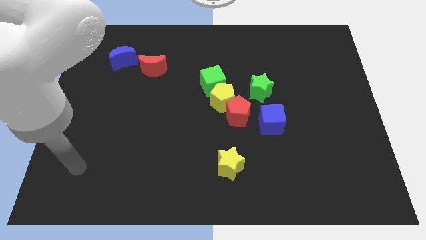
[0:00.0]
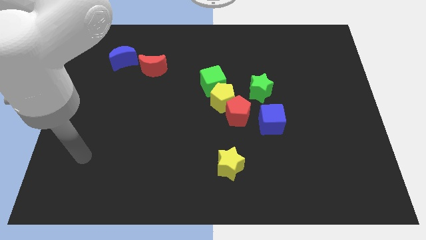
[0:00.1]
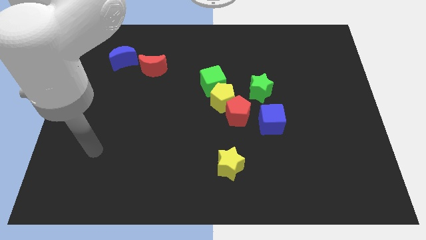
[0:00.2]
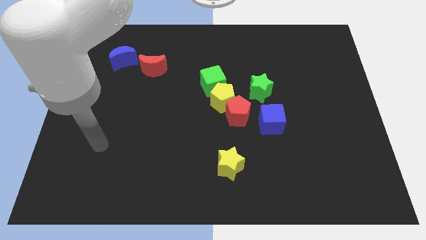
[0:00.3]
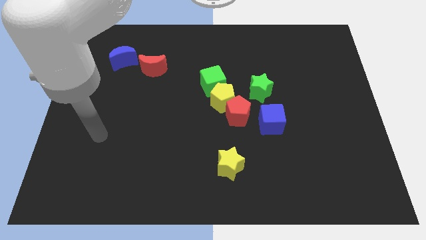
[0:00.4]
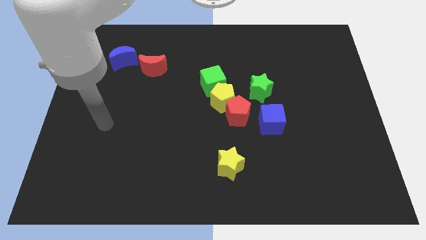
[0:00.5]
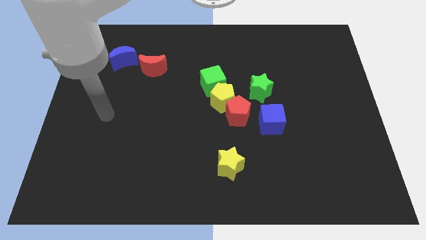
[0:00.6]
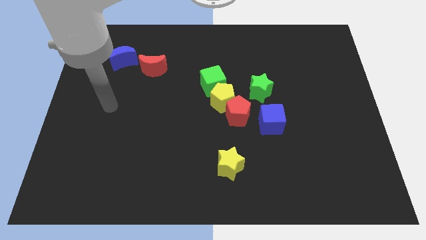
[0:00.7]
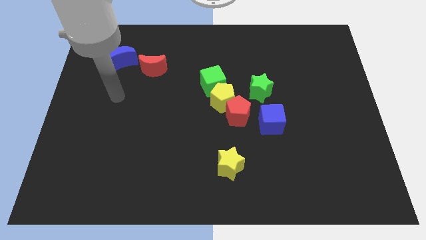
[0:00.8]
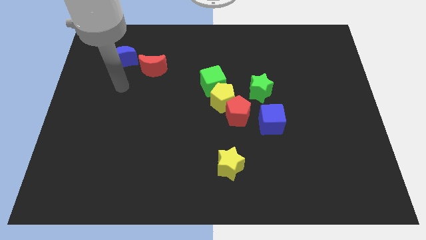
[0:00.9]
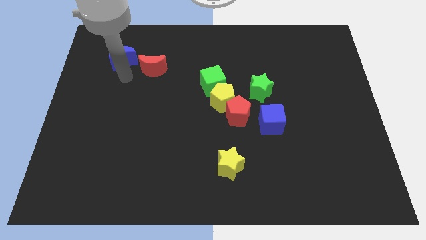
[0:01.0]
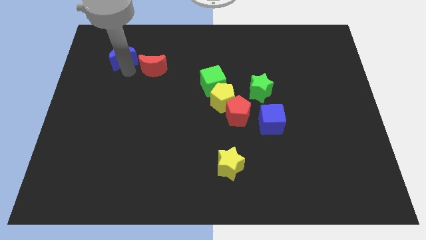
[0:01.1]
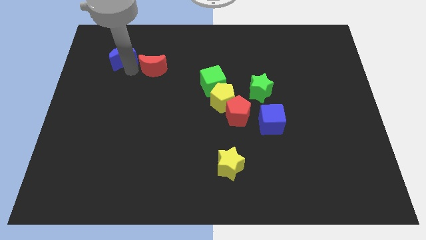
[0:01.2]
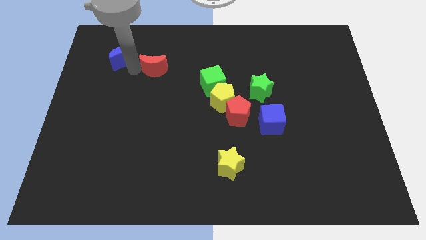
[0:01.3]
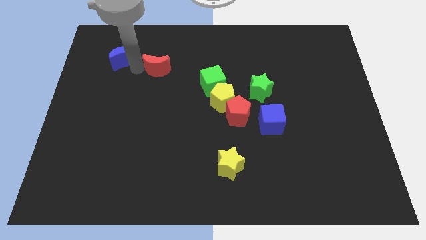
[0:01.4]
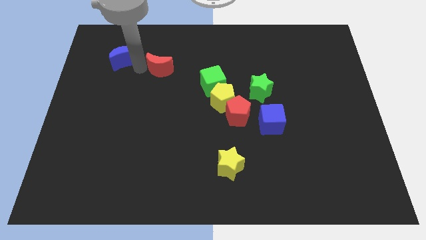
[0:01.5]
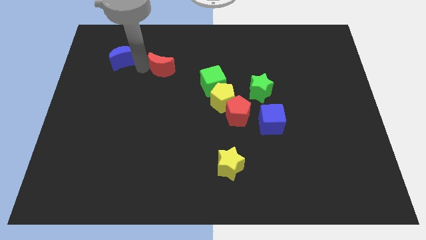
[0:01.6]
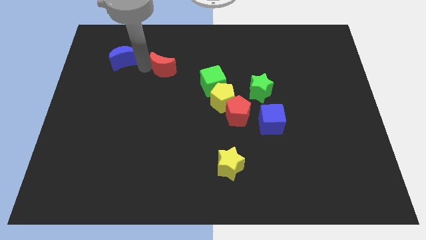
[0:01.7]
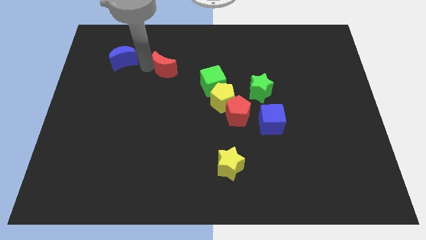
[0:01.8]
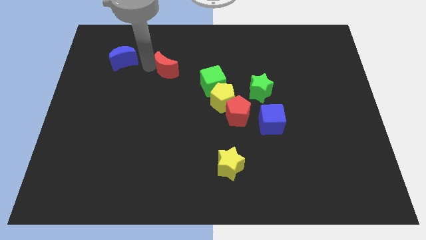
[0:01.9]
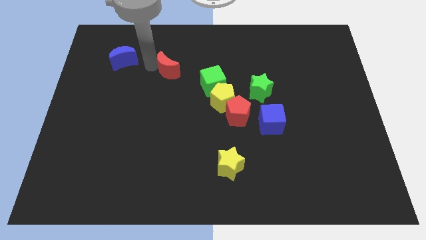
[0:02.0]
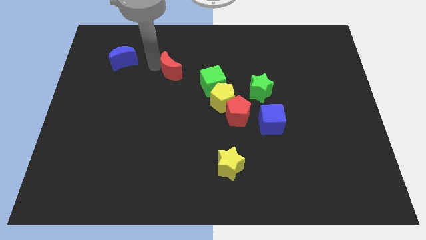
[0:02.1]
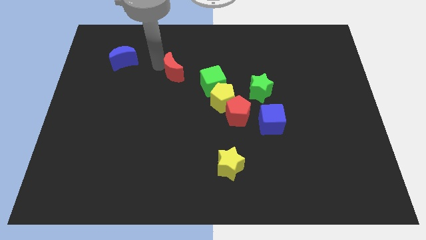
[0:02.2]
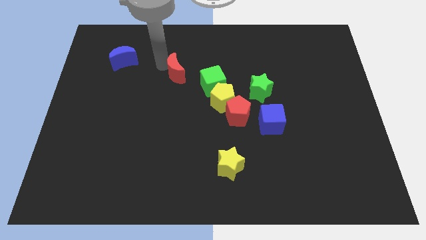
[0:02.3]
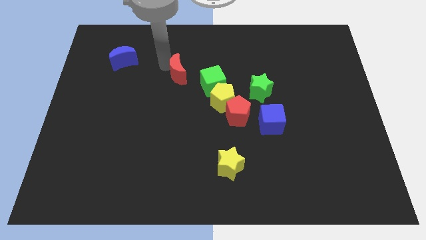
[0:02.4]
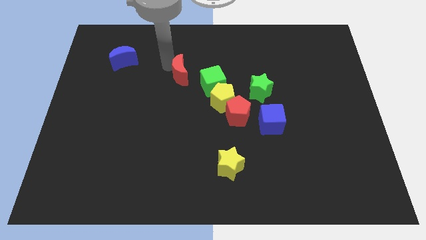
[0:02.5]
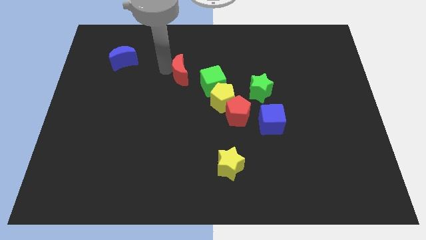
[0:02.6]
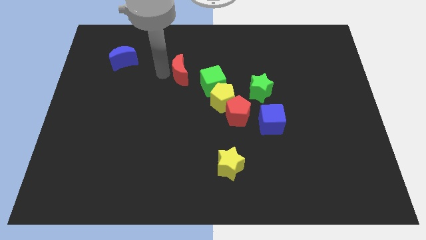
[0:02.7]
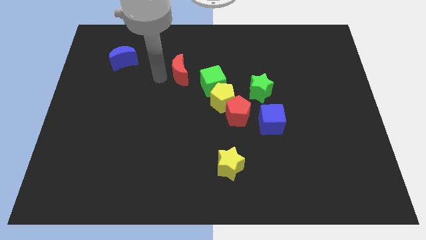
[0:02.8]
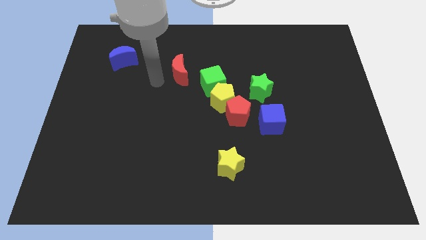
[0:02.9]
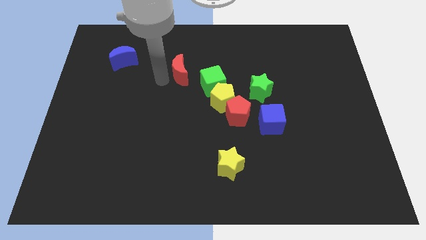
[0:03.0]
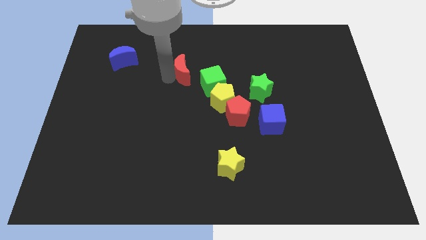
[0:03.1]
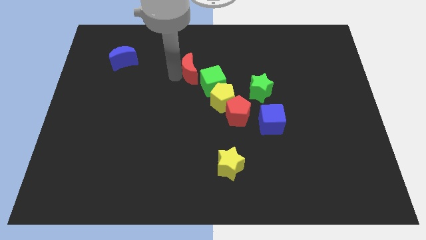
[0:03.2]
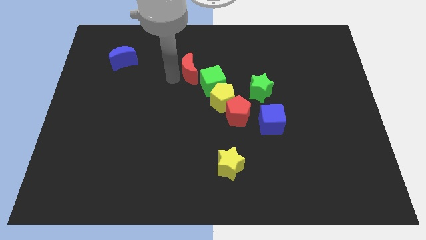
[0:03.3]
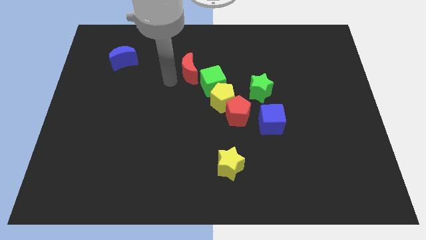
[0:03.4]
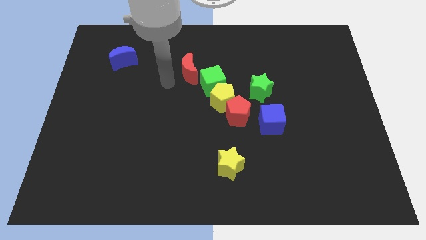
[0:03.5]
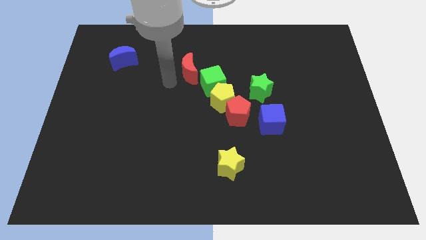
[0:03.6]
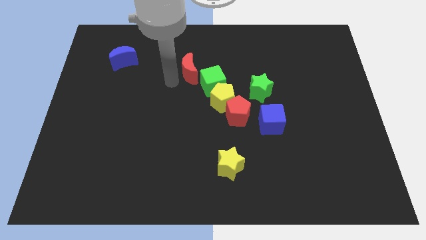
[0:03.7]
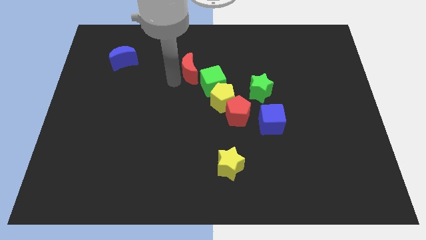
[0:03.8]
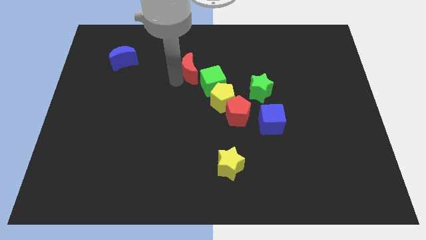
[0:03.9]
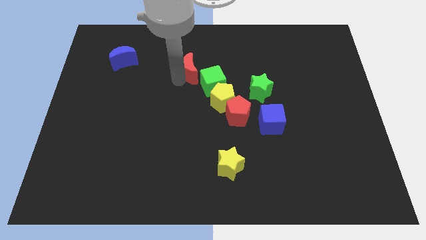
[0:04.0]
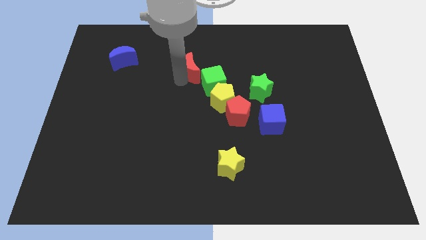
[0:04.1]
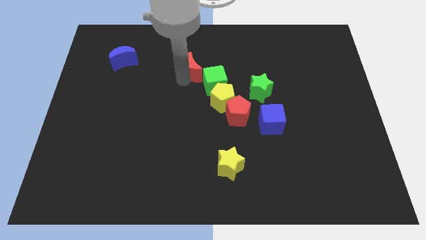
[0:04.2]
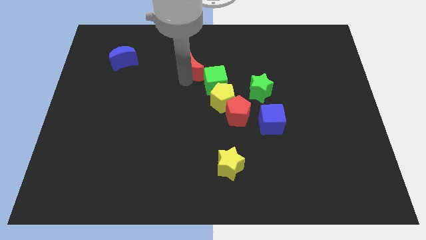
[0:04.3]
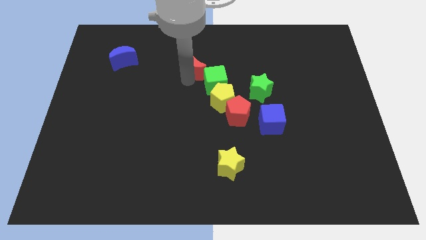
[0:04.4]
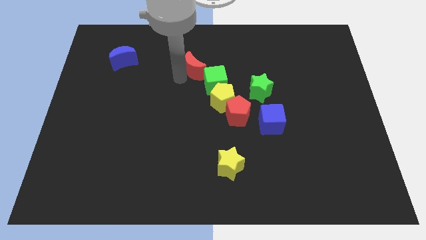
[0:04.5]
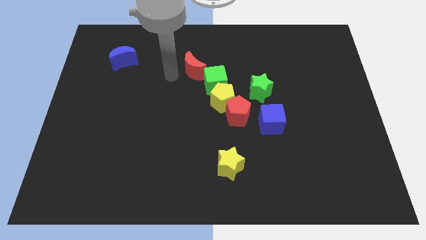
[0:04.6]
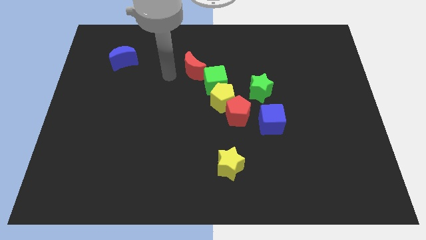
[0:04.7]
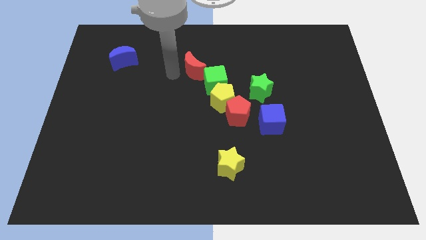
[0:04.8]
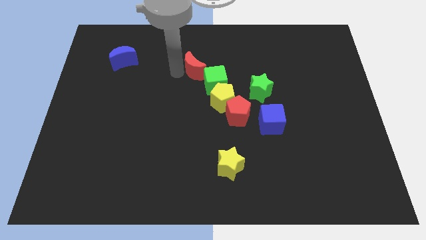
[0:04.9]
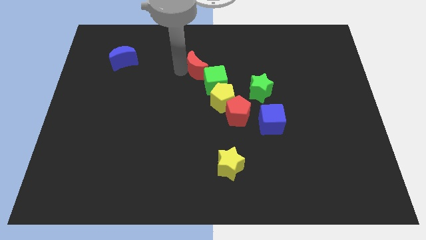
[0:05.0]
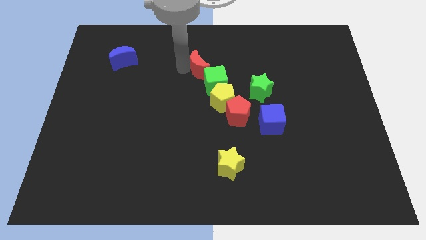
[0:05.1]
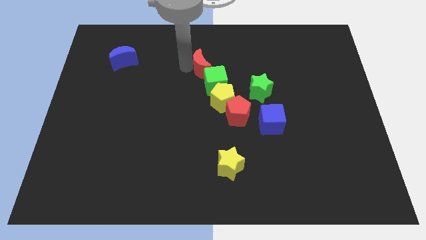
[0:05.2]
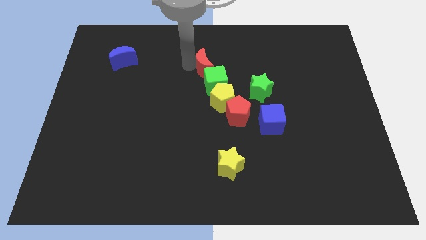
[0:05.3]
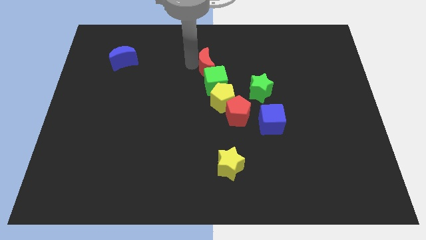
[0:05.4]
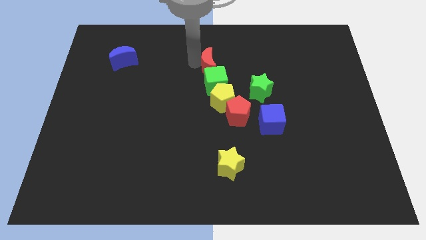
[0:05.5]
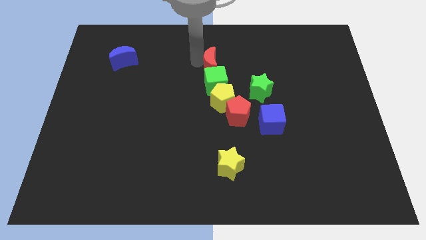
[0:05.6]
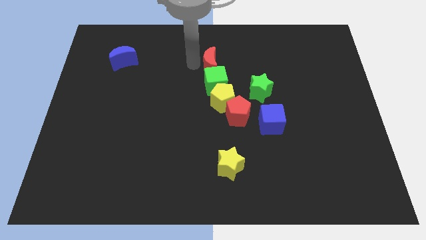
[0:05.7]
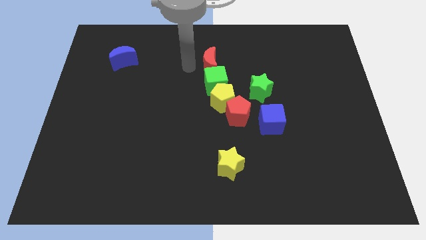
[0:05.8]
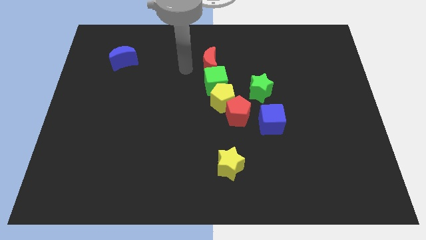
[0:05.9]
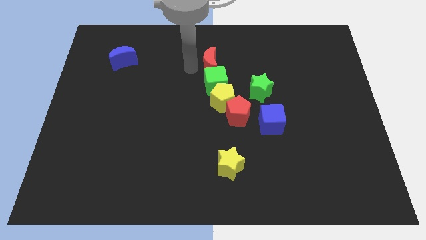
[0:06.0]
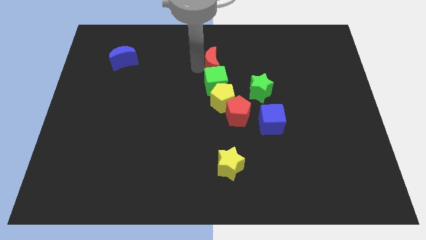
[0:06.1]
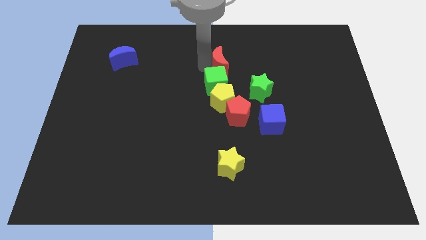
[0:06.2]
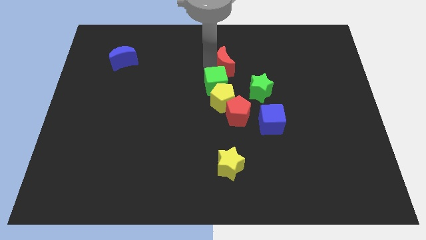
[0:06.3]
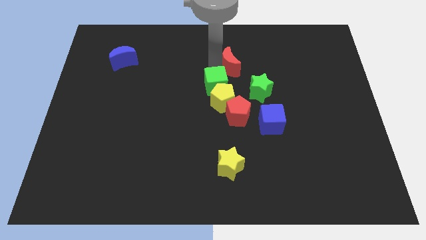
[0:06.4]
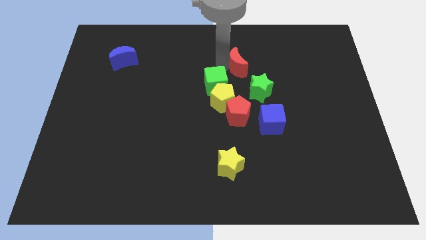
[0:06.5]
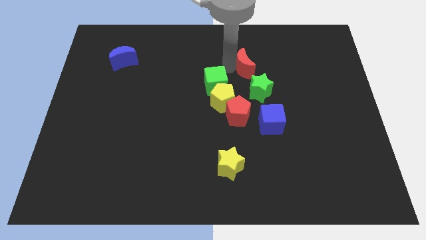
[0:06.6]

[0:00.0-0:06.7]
slide the red moon to the top side of the green star

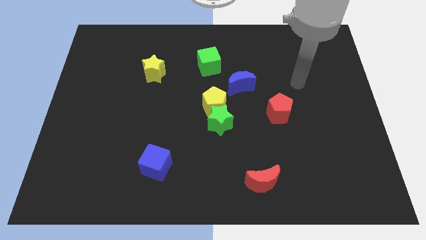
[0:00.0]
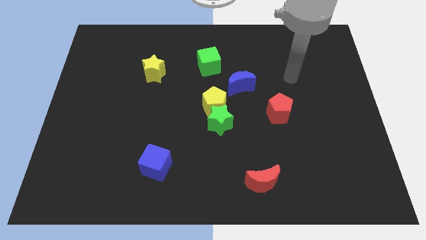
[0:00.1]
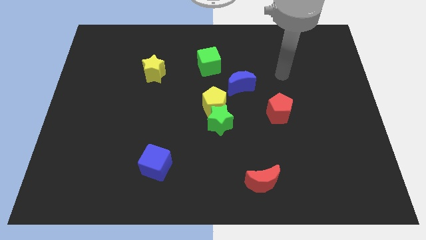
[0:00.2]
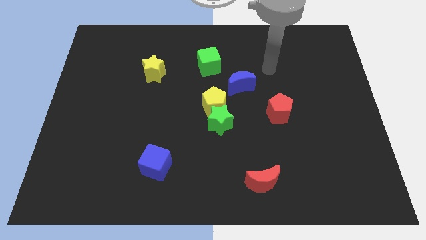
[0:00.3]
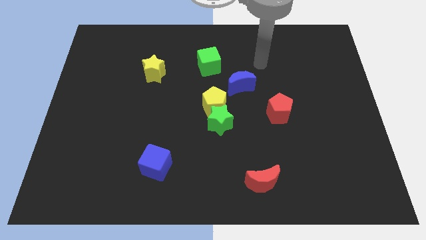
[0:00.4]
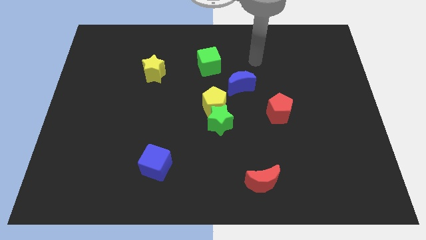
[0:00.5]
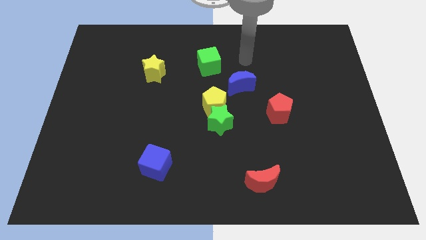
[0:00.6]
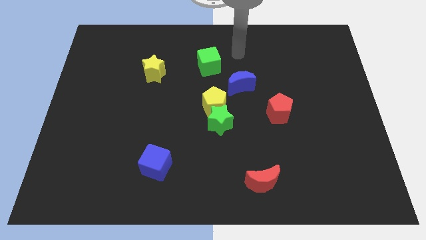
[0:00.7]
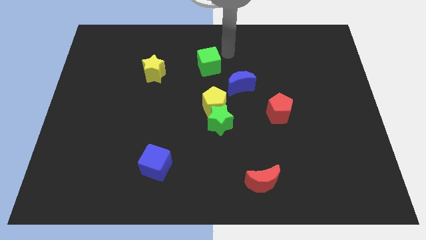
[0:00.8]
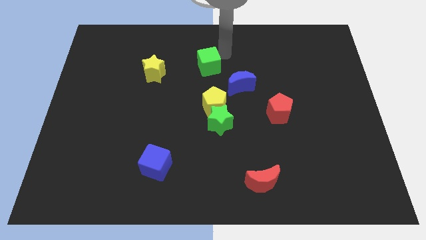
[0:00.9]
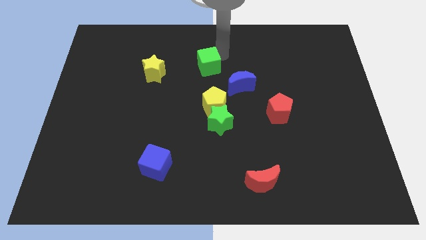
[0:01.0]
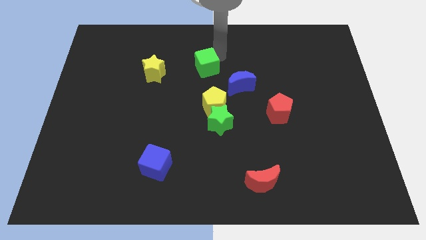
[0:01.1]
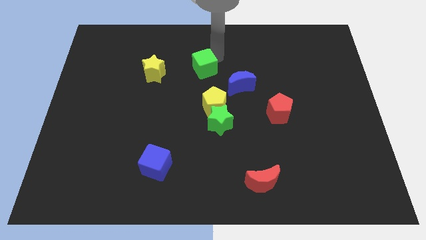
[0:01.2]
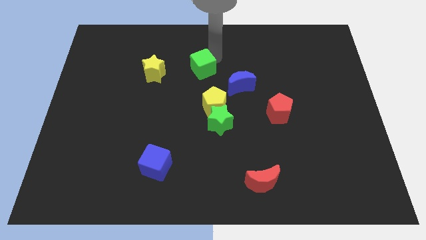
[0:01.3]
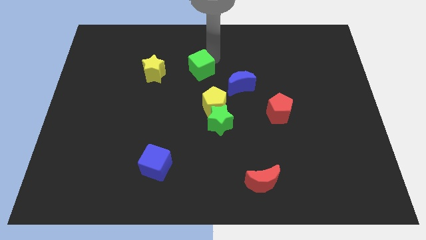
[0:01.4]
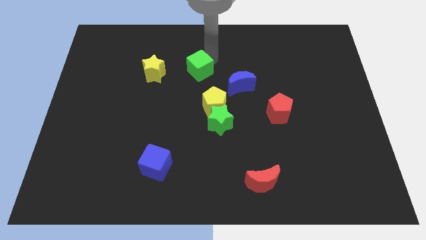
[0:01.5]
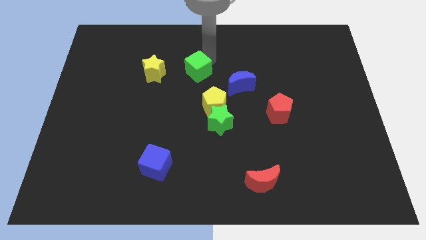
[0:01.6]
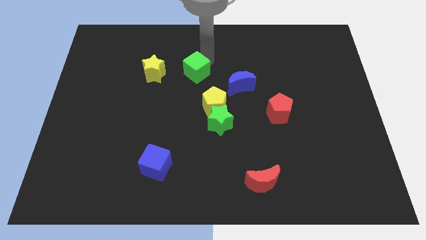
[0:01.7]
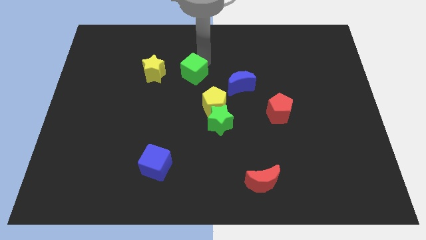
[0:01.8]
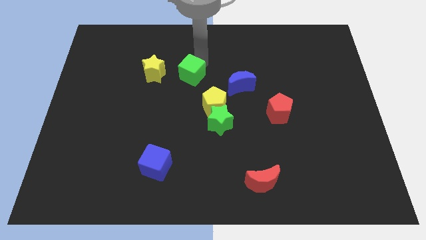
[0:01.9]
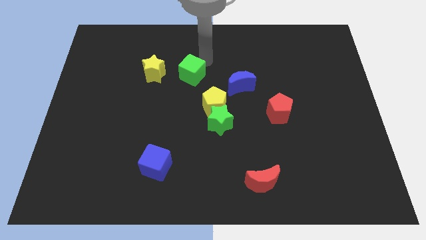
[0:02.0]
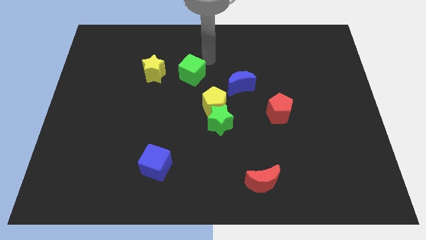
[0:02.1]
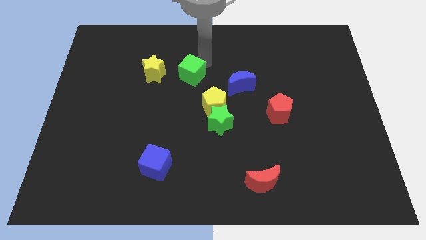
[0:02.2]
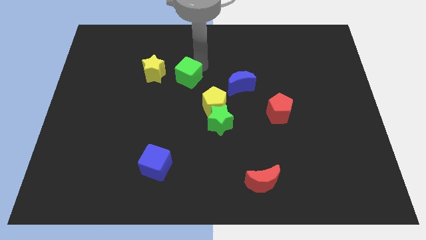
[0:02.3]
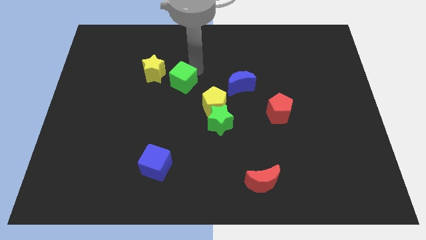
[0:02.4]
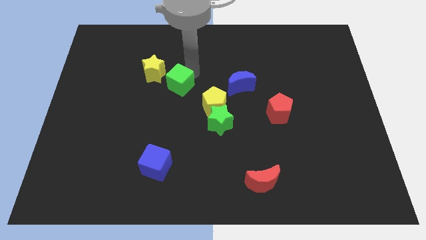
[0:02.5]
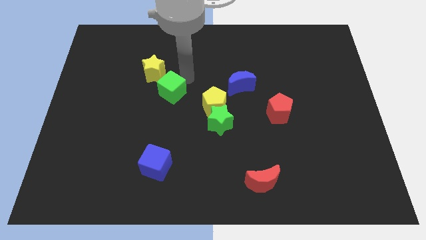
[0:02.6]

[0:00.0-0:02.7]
put the green cube to the bottom of the yellow star
